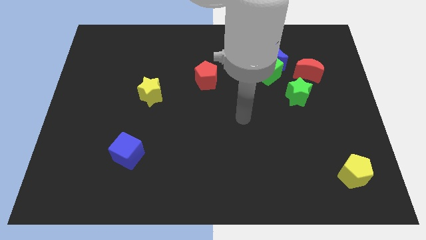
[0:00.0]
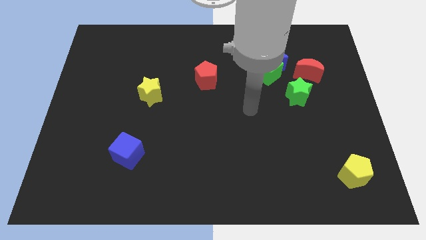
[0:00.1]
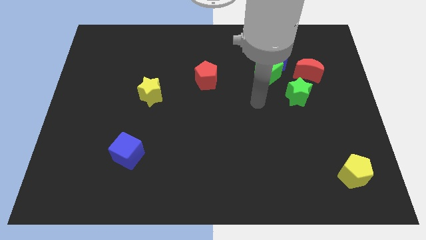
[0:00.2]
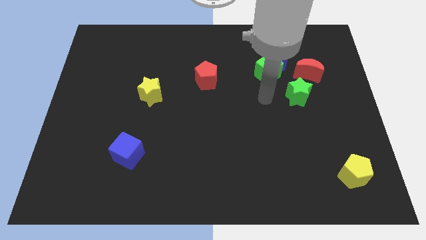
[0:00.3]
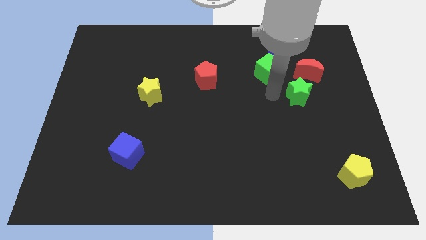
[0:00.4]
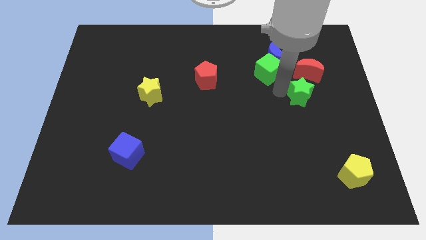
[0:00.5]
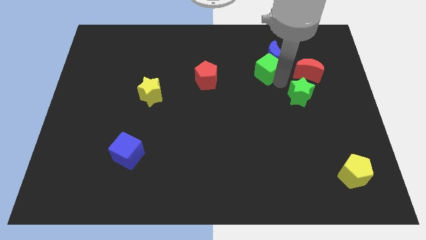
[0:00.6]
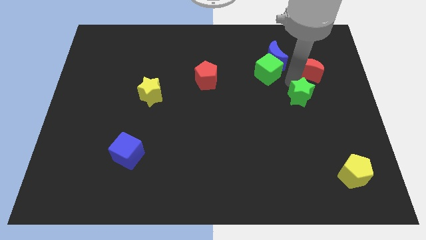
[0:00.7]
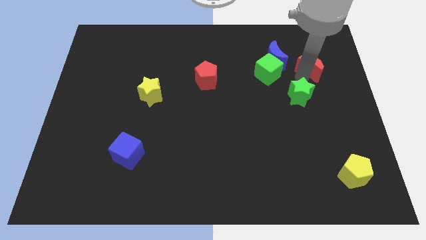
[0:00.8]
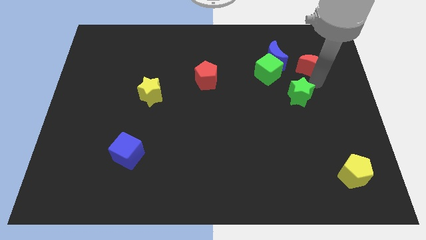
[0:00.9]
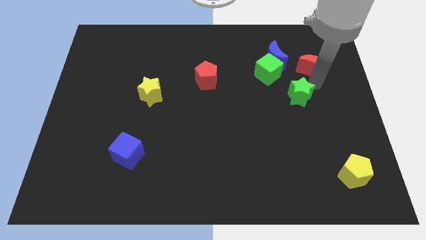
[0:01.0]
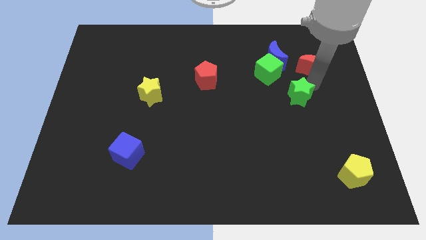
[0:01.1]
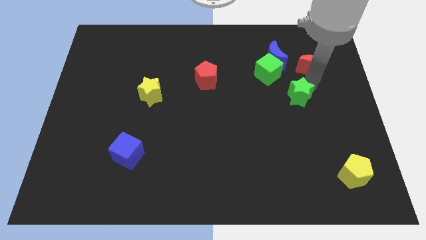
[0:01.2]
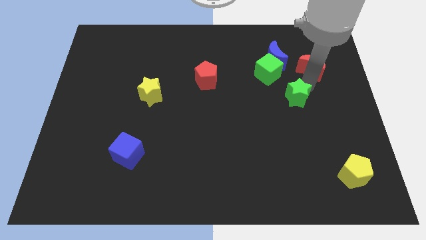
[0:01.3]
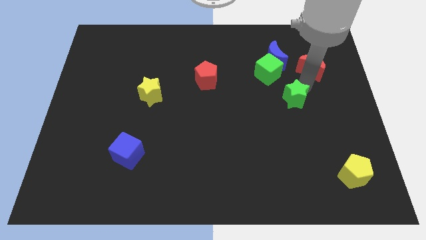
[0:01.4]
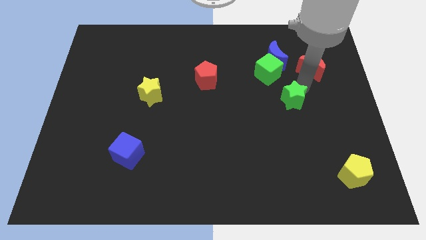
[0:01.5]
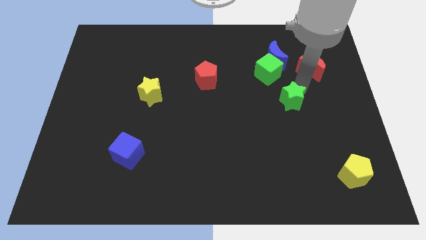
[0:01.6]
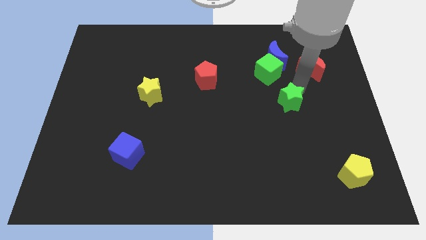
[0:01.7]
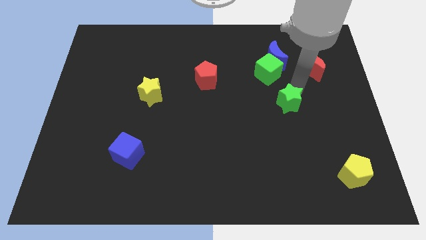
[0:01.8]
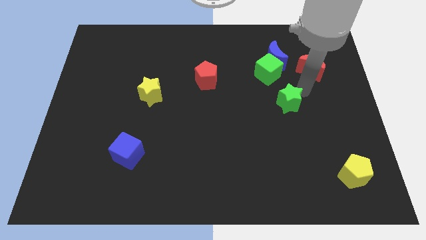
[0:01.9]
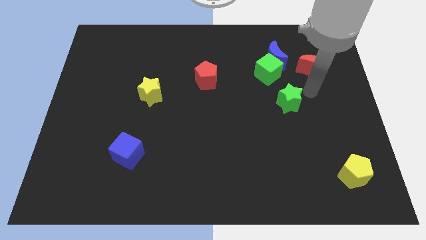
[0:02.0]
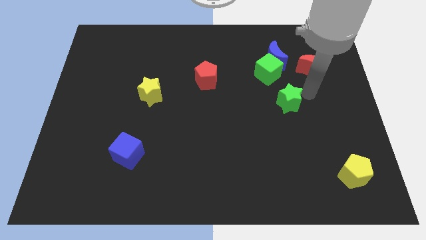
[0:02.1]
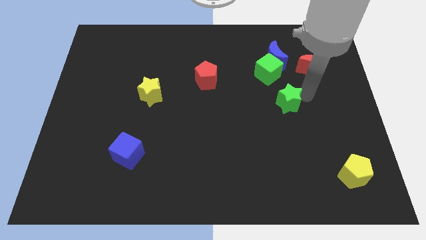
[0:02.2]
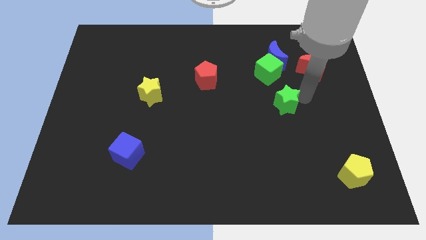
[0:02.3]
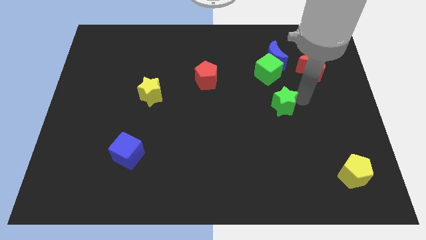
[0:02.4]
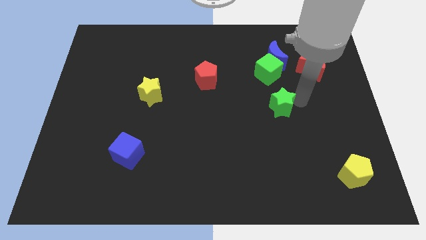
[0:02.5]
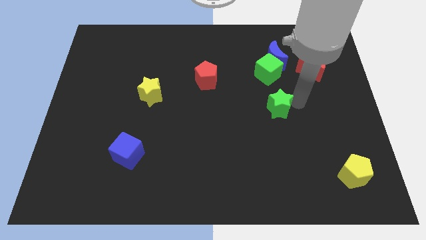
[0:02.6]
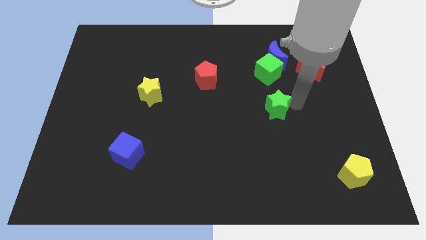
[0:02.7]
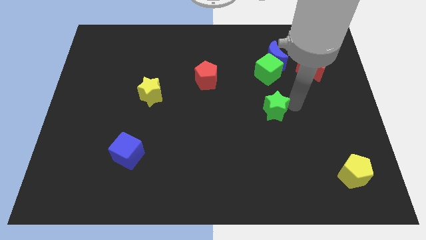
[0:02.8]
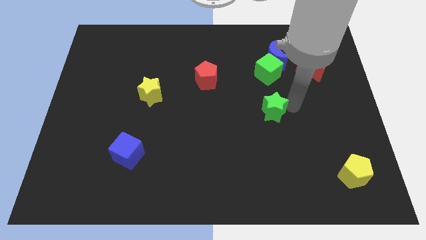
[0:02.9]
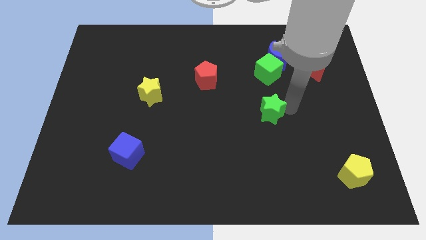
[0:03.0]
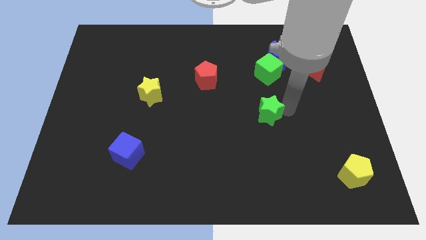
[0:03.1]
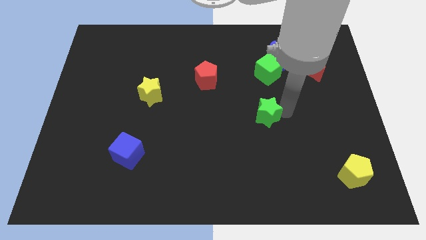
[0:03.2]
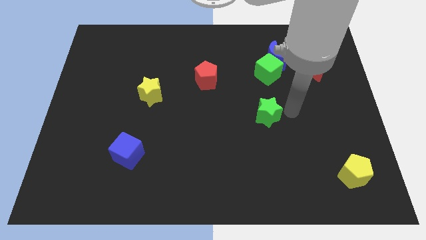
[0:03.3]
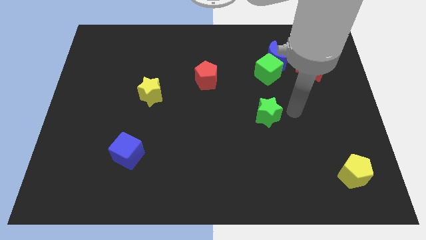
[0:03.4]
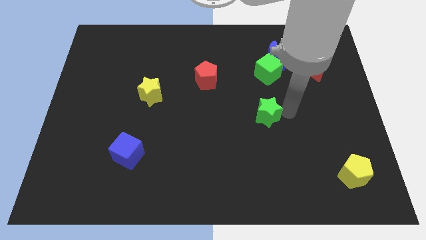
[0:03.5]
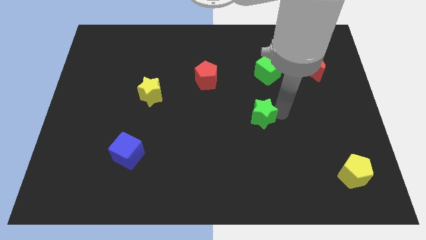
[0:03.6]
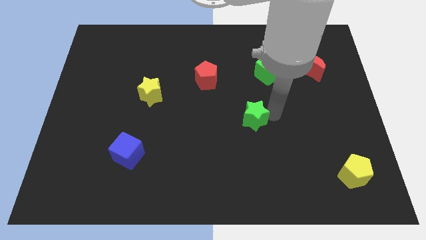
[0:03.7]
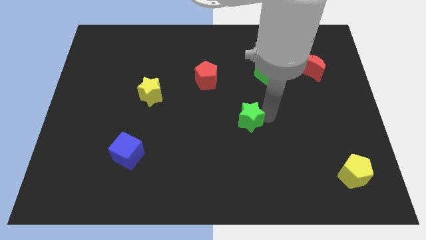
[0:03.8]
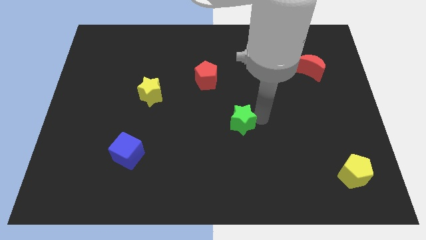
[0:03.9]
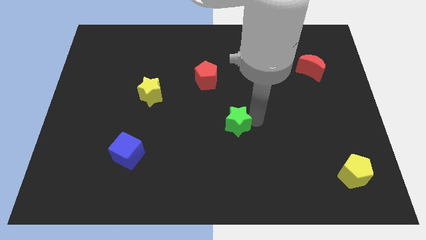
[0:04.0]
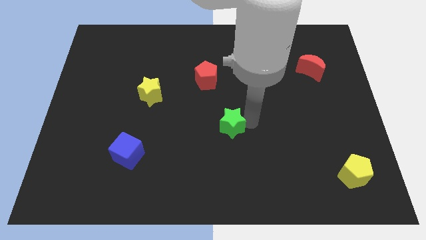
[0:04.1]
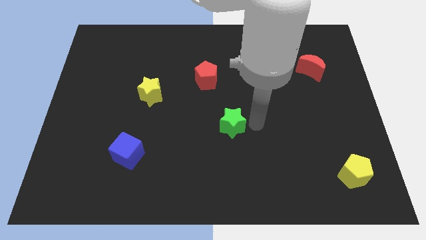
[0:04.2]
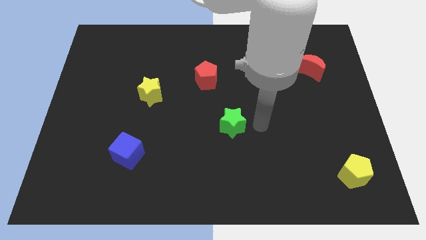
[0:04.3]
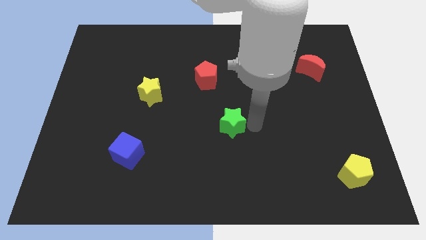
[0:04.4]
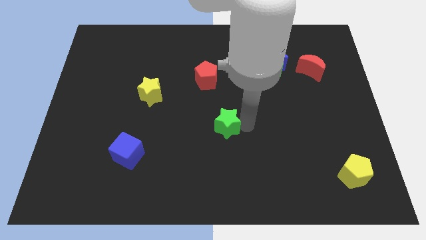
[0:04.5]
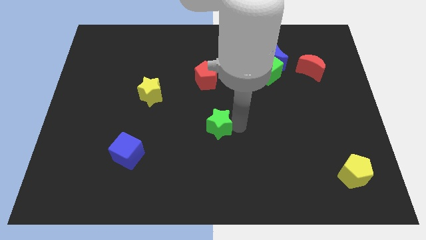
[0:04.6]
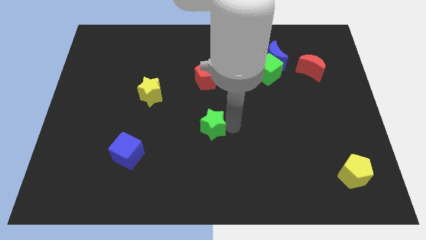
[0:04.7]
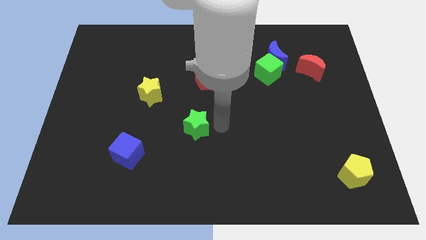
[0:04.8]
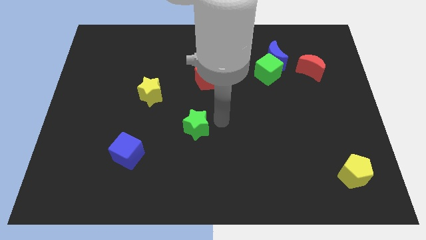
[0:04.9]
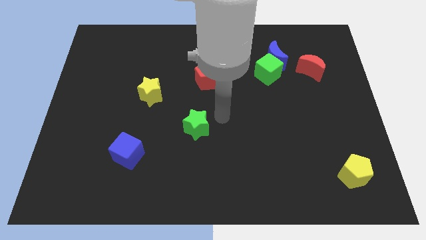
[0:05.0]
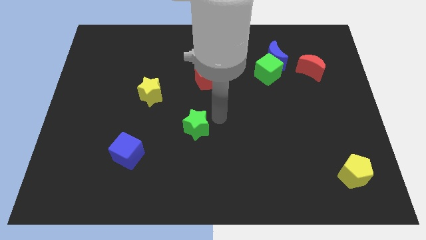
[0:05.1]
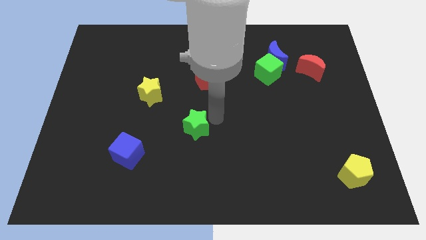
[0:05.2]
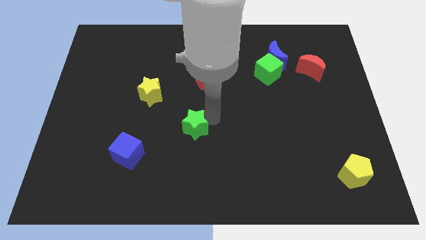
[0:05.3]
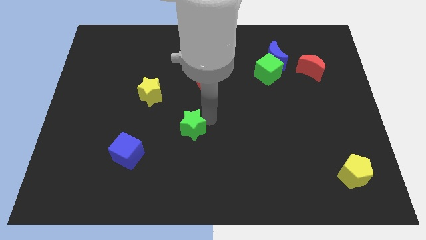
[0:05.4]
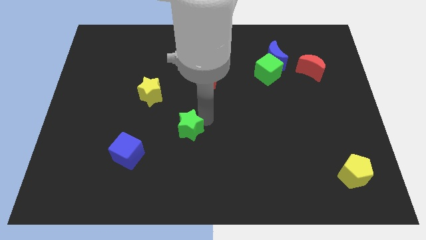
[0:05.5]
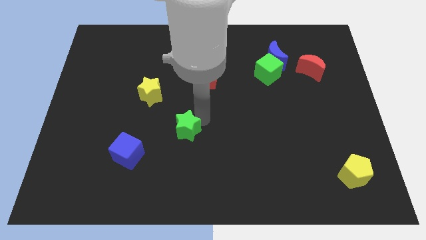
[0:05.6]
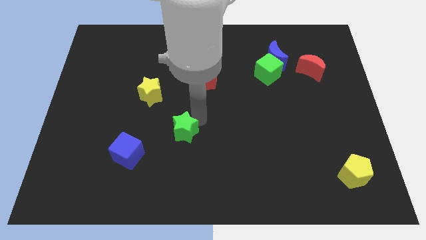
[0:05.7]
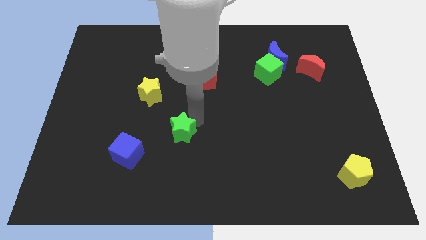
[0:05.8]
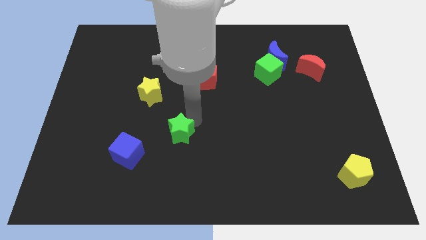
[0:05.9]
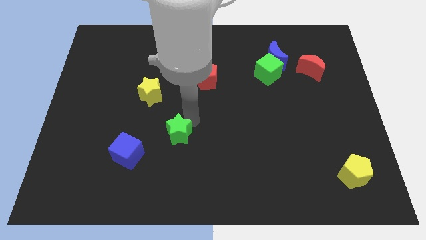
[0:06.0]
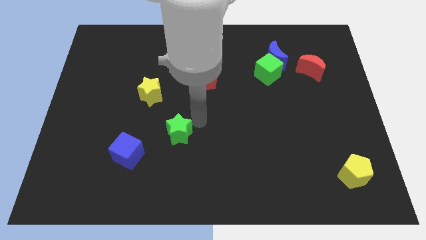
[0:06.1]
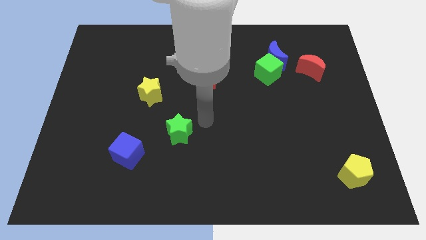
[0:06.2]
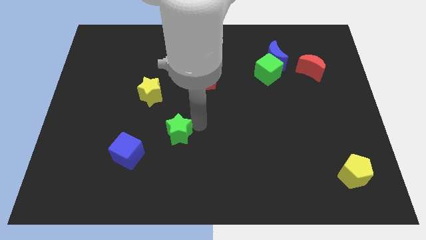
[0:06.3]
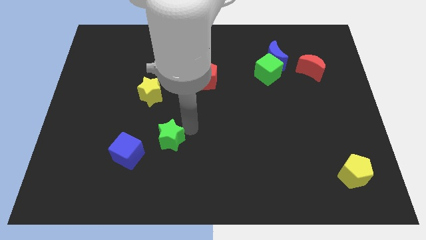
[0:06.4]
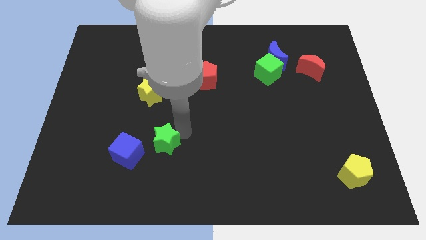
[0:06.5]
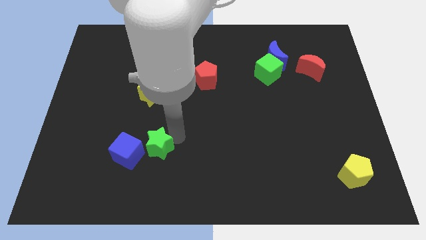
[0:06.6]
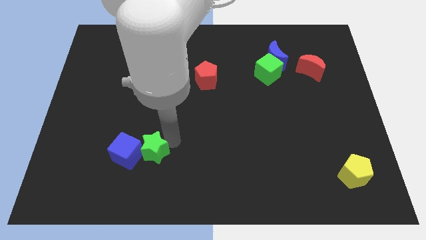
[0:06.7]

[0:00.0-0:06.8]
slide the green star to the blue cube

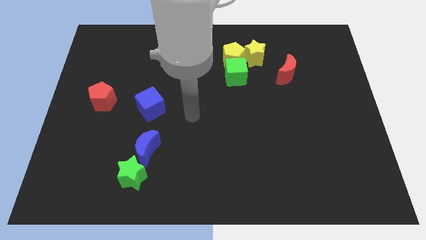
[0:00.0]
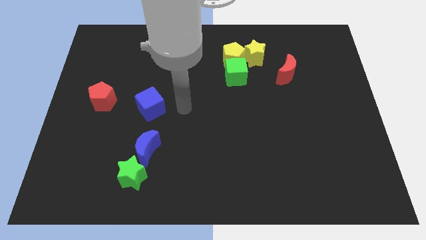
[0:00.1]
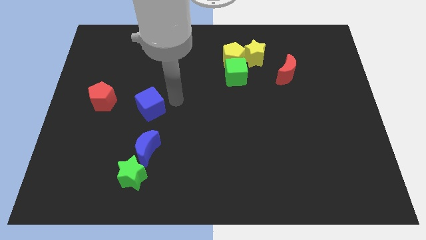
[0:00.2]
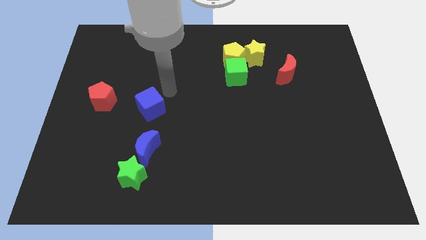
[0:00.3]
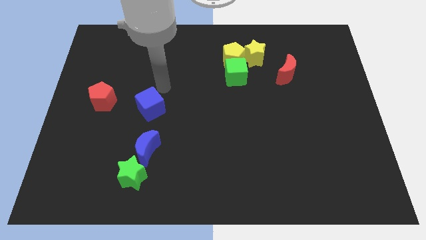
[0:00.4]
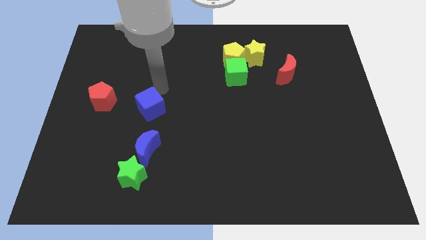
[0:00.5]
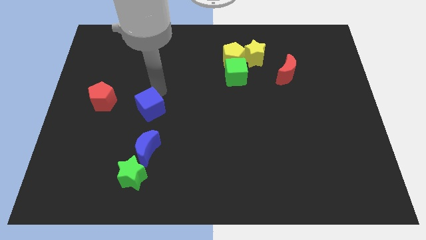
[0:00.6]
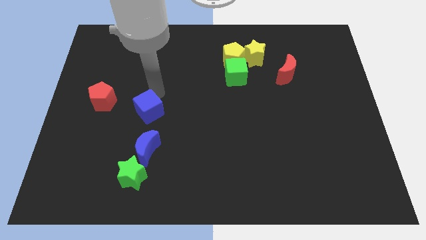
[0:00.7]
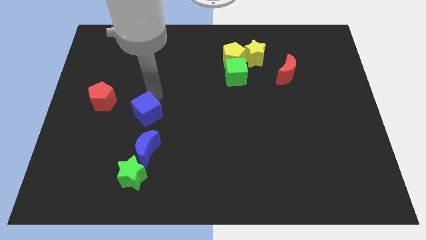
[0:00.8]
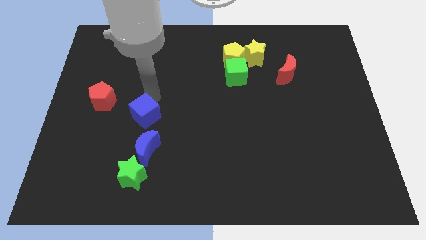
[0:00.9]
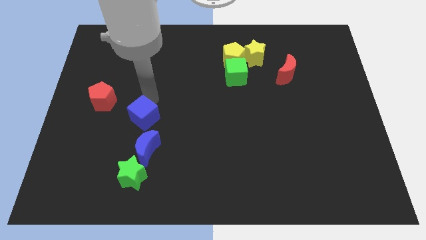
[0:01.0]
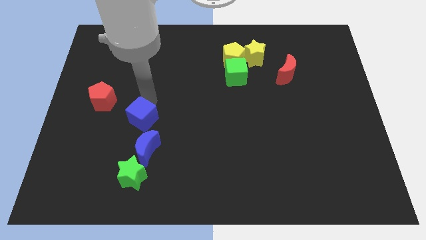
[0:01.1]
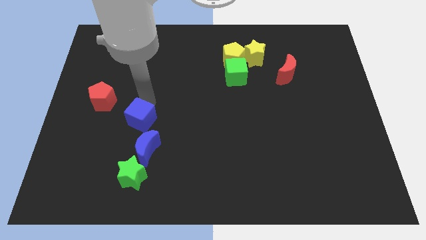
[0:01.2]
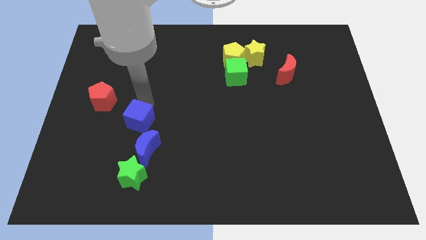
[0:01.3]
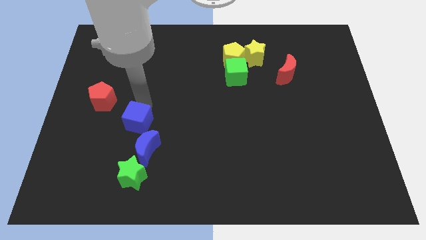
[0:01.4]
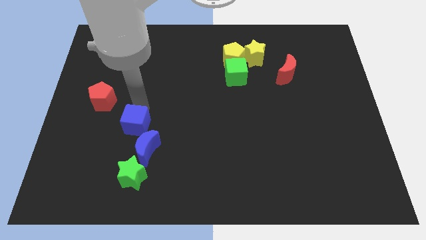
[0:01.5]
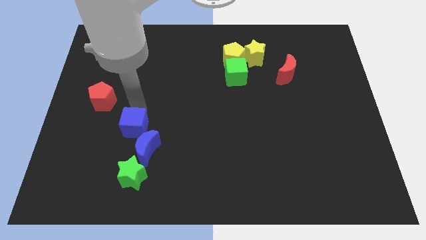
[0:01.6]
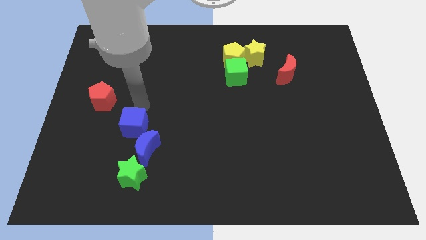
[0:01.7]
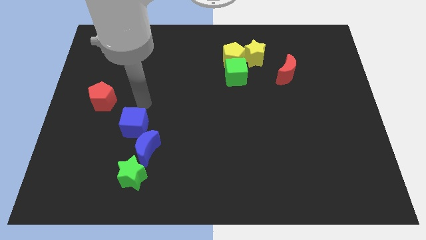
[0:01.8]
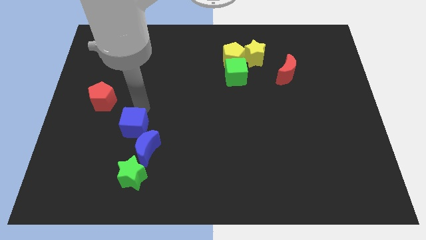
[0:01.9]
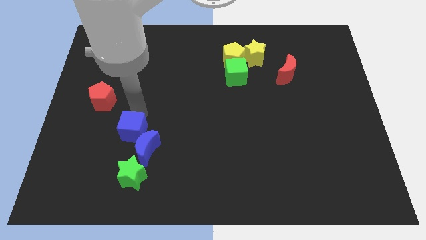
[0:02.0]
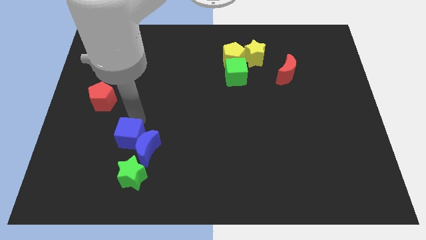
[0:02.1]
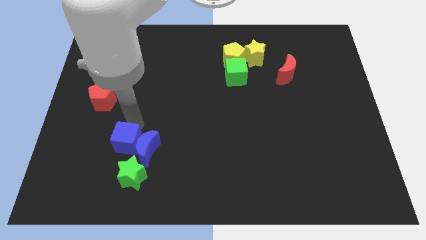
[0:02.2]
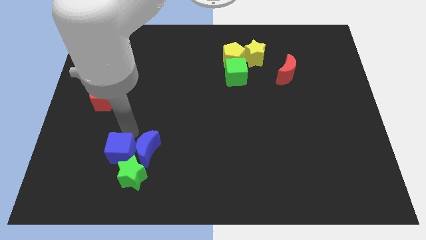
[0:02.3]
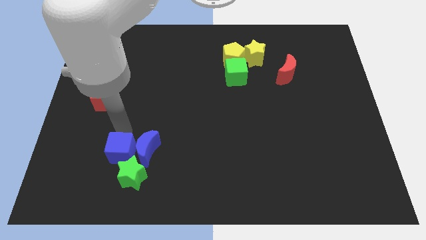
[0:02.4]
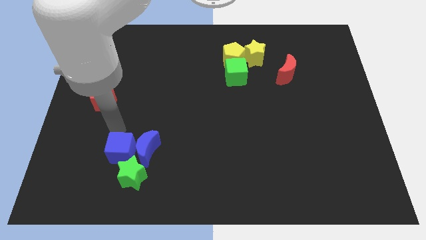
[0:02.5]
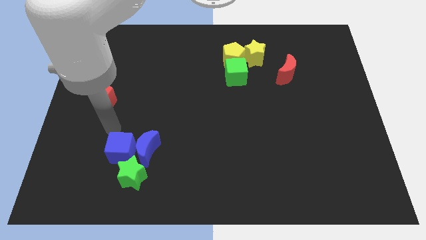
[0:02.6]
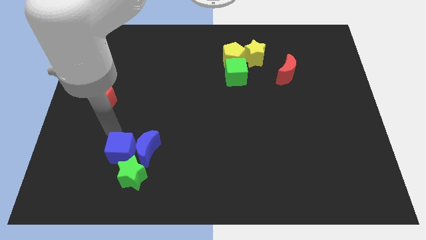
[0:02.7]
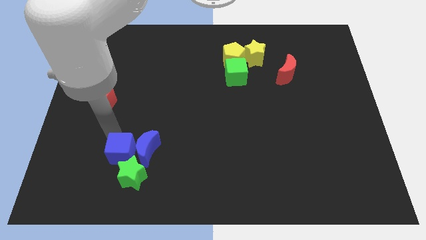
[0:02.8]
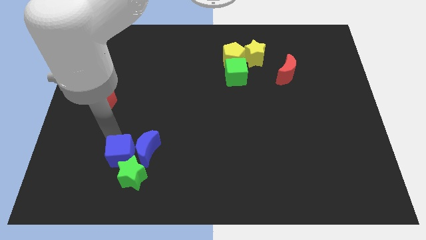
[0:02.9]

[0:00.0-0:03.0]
slide the blue cube next to the green star
